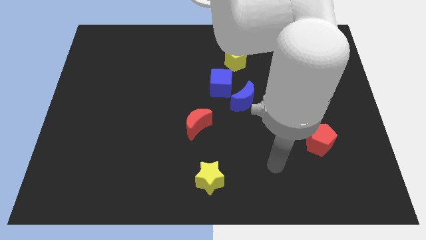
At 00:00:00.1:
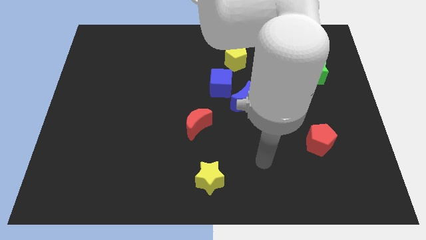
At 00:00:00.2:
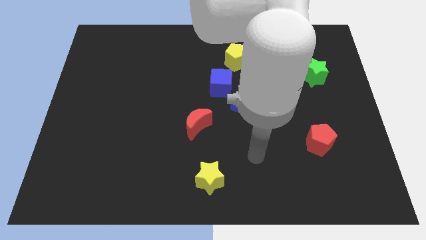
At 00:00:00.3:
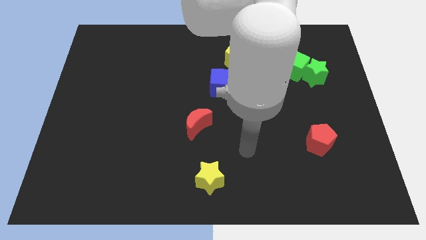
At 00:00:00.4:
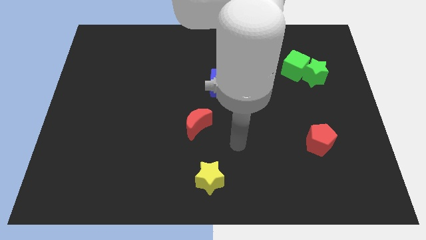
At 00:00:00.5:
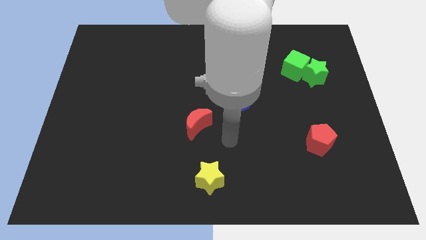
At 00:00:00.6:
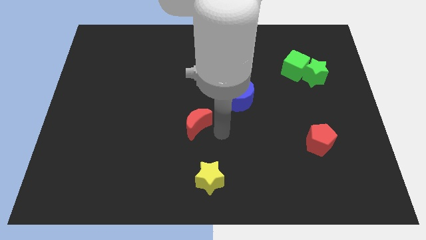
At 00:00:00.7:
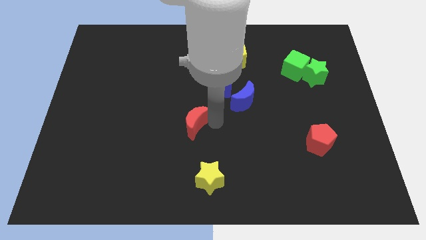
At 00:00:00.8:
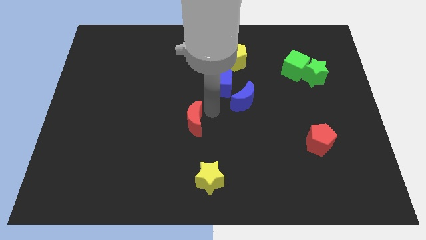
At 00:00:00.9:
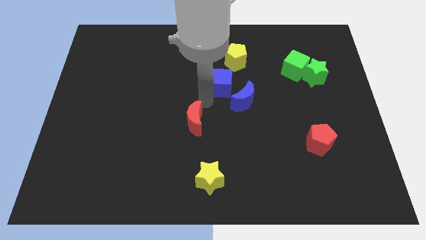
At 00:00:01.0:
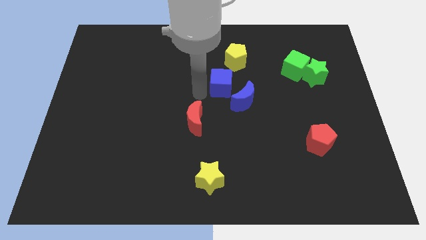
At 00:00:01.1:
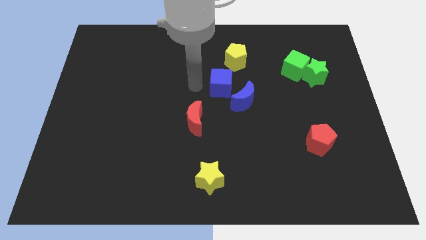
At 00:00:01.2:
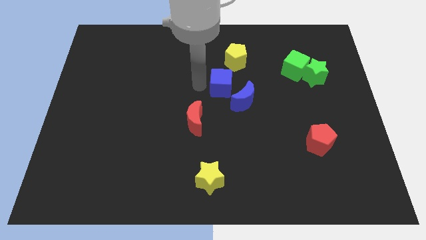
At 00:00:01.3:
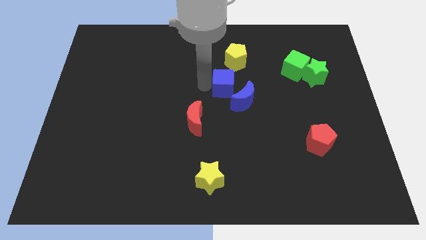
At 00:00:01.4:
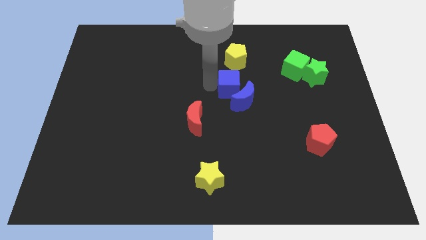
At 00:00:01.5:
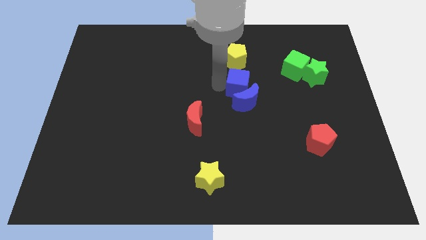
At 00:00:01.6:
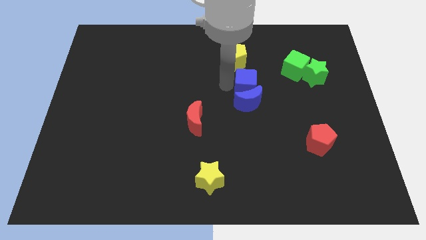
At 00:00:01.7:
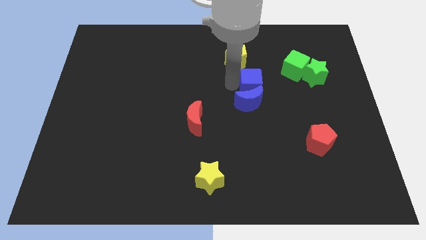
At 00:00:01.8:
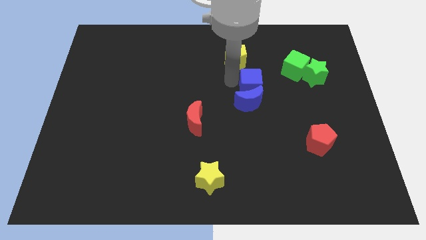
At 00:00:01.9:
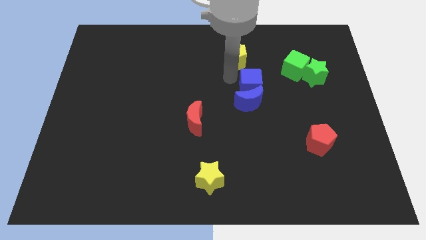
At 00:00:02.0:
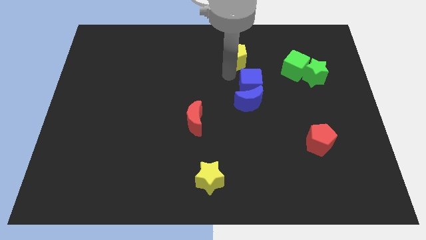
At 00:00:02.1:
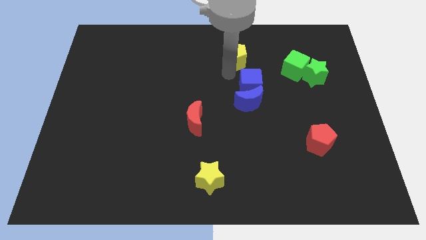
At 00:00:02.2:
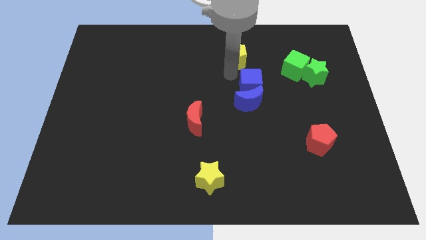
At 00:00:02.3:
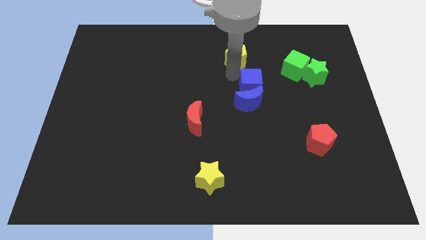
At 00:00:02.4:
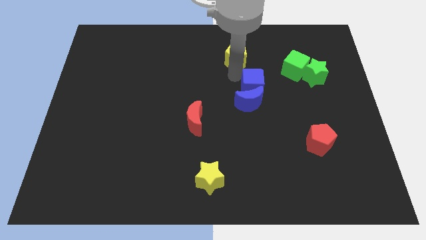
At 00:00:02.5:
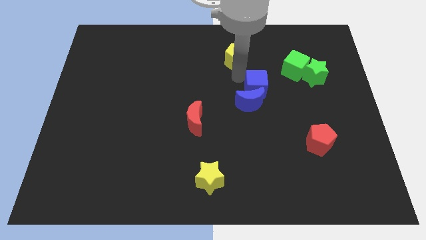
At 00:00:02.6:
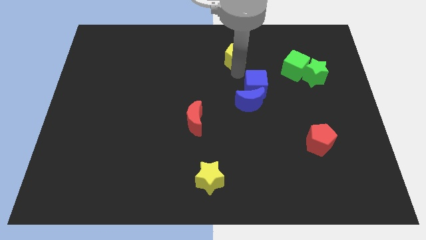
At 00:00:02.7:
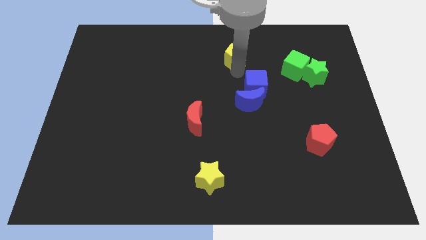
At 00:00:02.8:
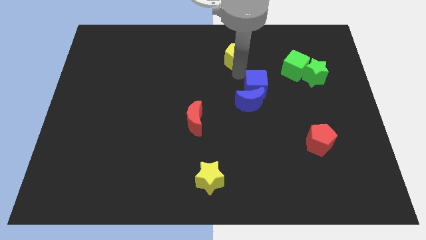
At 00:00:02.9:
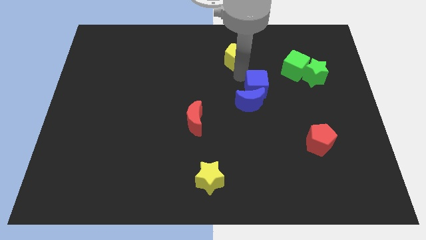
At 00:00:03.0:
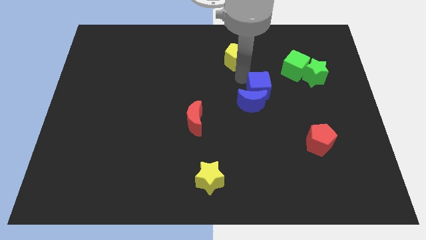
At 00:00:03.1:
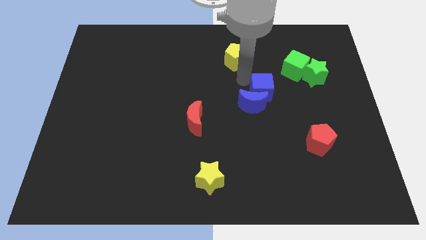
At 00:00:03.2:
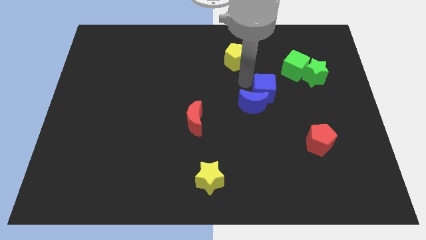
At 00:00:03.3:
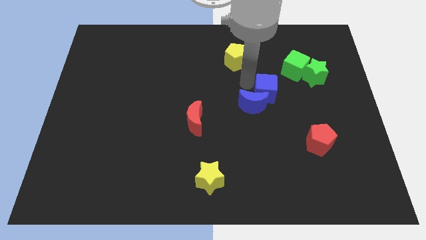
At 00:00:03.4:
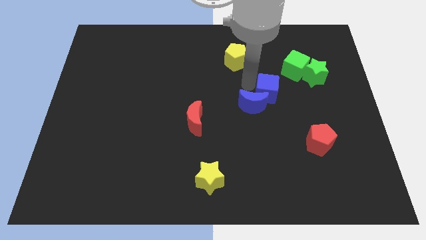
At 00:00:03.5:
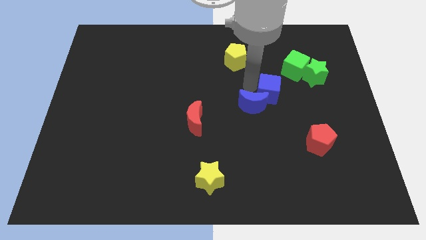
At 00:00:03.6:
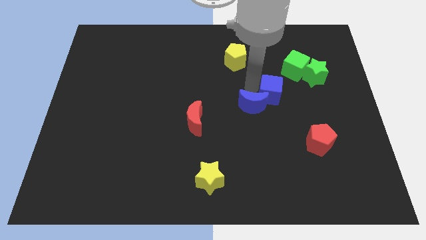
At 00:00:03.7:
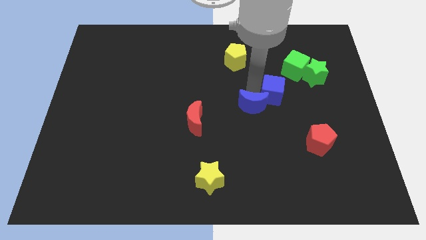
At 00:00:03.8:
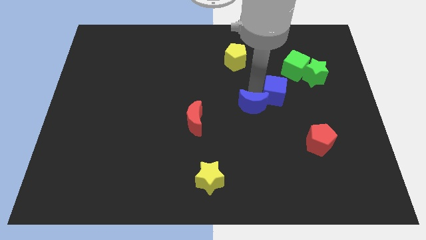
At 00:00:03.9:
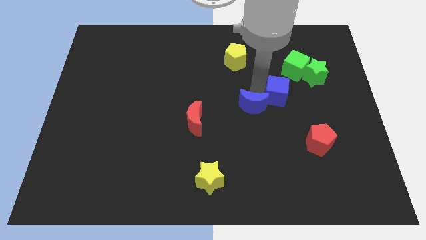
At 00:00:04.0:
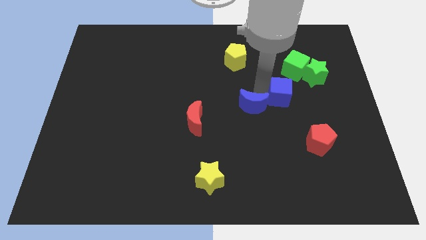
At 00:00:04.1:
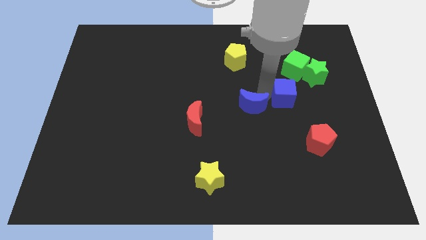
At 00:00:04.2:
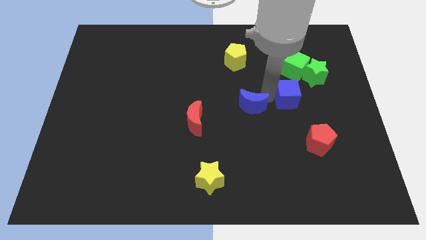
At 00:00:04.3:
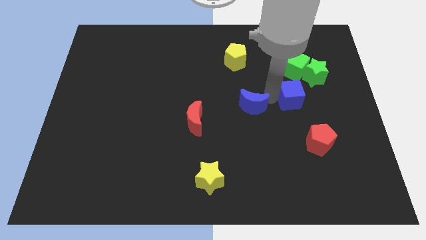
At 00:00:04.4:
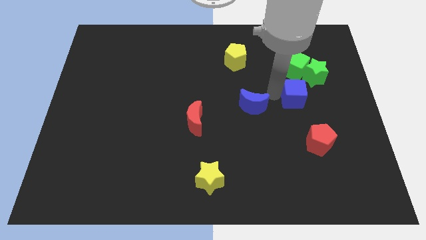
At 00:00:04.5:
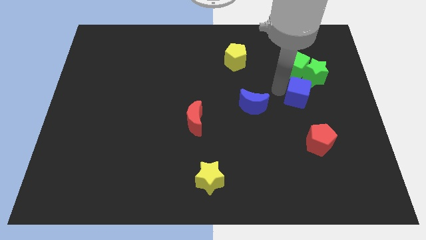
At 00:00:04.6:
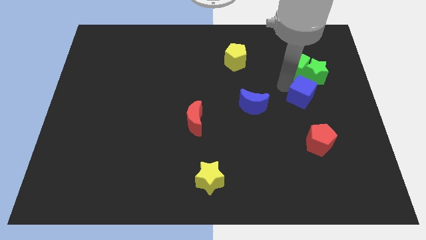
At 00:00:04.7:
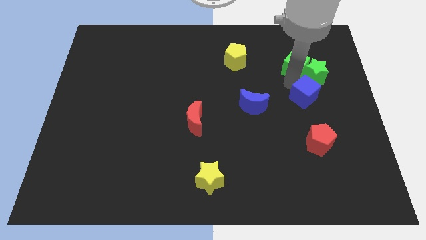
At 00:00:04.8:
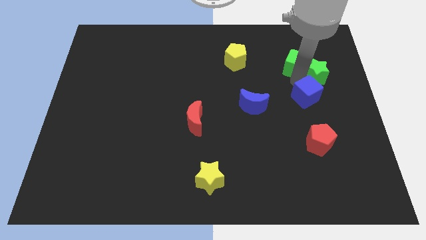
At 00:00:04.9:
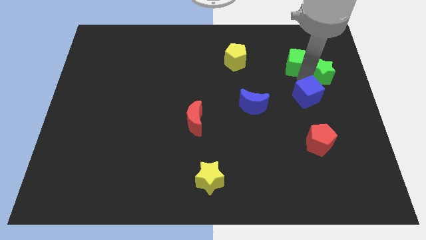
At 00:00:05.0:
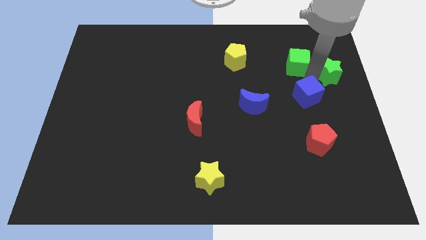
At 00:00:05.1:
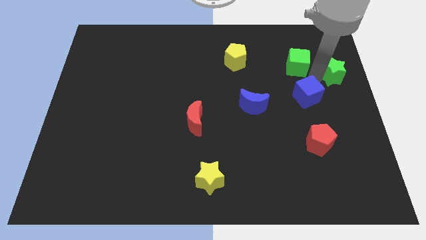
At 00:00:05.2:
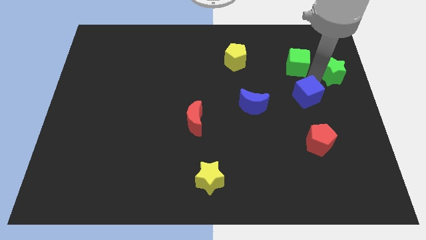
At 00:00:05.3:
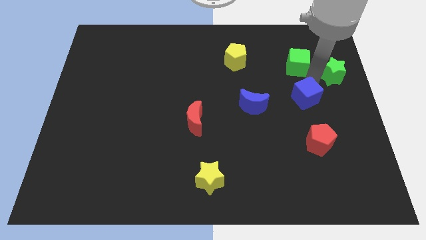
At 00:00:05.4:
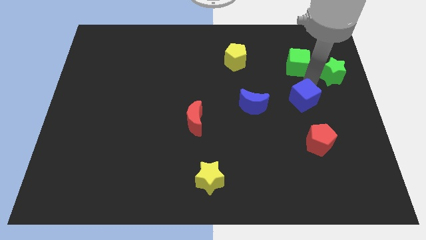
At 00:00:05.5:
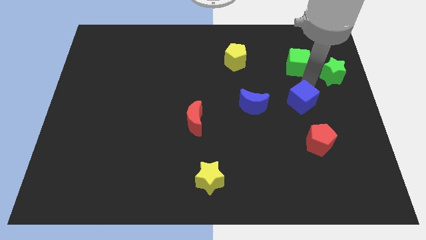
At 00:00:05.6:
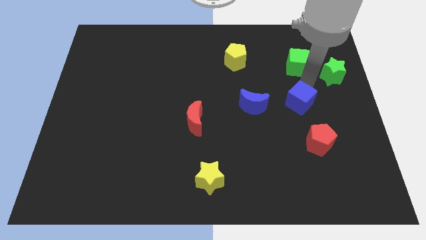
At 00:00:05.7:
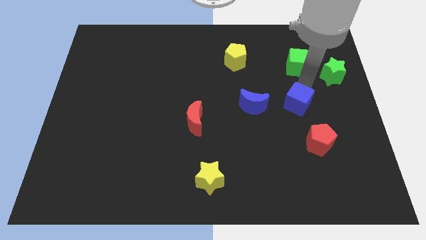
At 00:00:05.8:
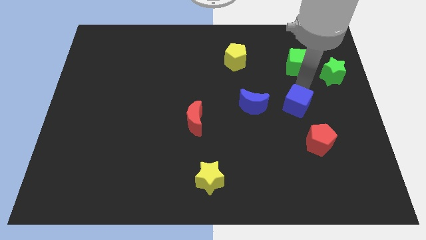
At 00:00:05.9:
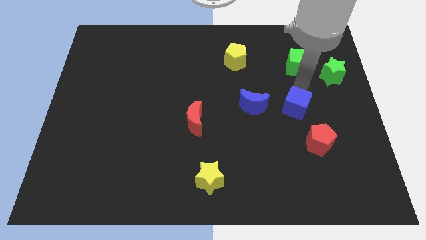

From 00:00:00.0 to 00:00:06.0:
move the blue cube to the top left side of the red pentagon

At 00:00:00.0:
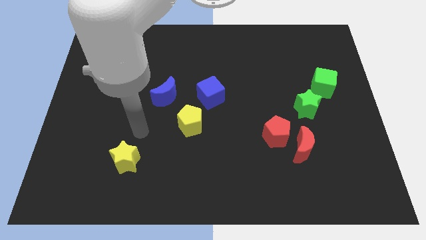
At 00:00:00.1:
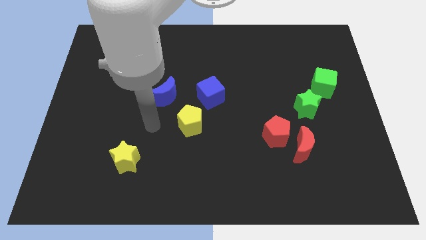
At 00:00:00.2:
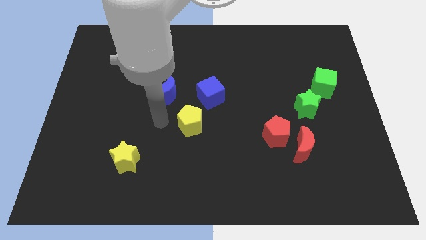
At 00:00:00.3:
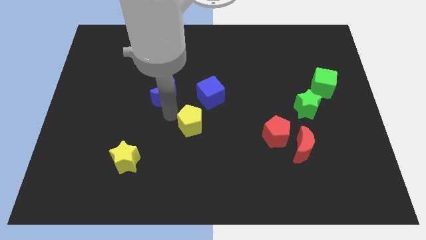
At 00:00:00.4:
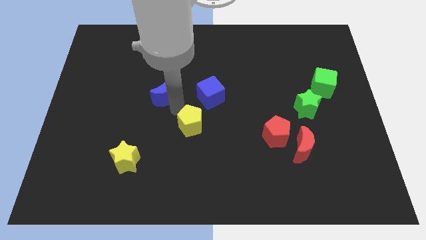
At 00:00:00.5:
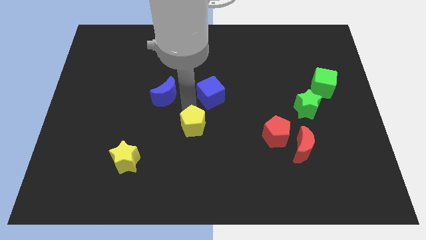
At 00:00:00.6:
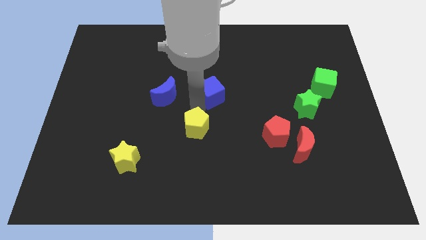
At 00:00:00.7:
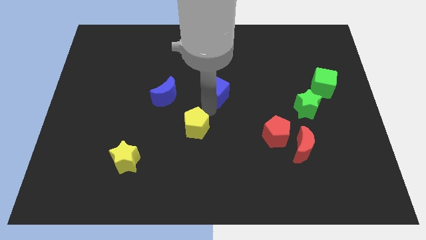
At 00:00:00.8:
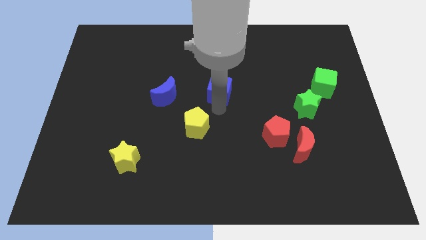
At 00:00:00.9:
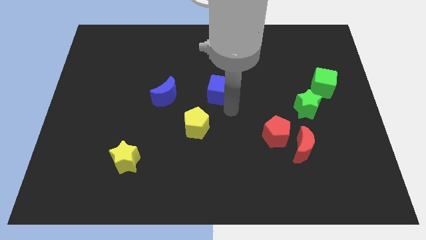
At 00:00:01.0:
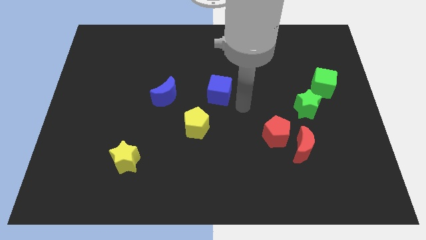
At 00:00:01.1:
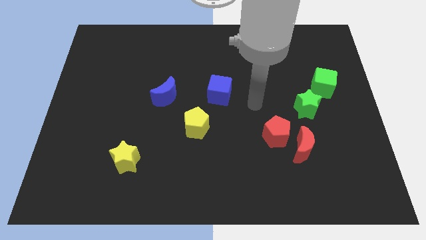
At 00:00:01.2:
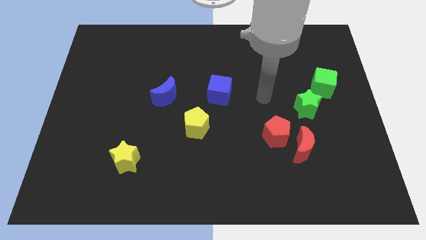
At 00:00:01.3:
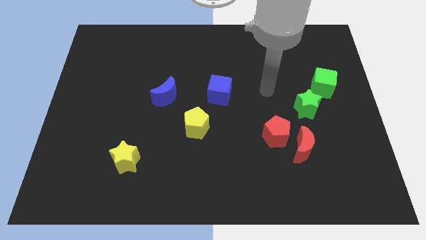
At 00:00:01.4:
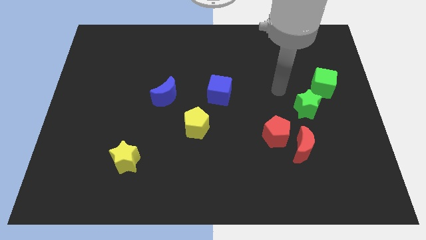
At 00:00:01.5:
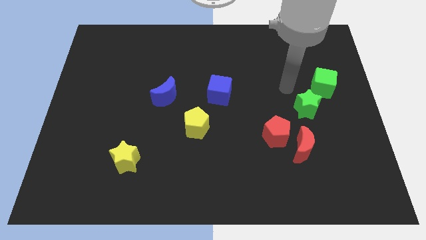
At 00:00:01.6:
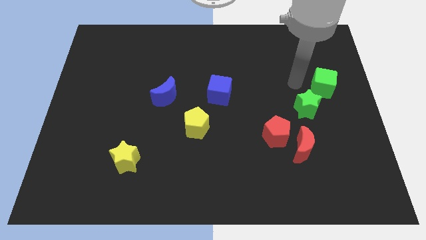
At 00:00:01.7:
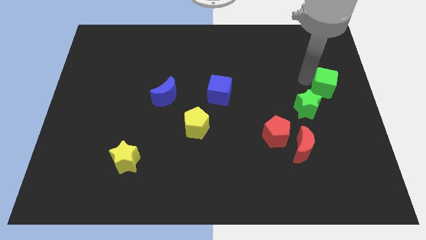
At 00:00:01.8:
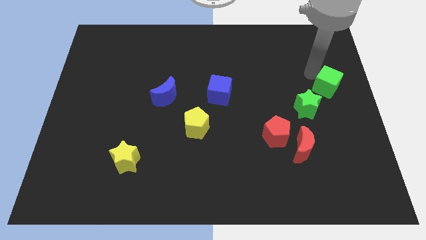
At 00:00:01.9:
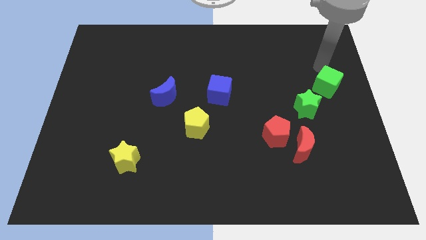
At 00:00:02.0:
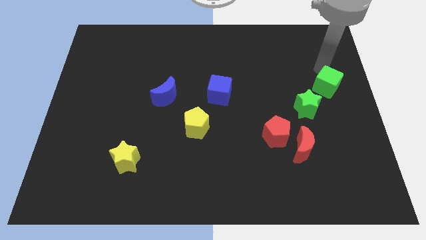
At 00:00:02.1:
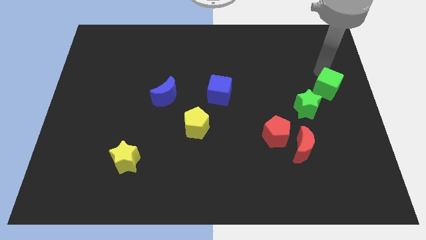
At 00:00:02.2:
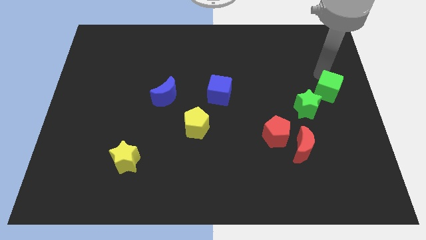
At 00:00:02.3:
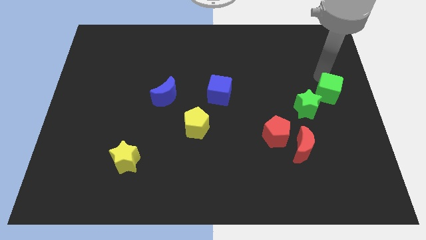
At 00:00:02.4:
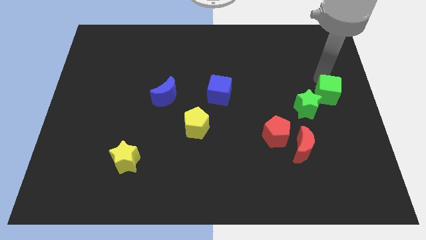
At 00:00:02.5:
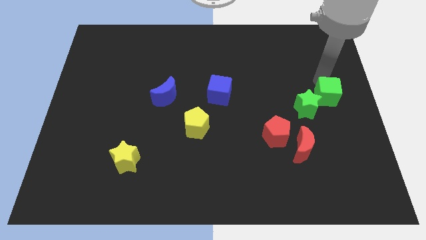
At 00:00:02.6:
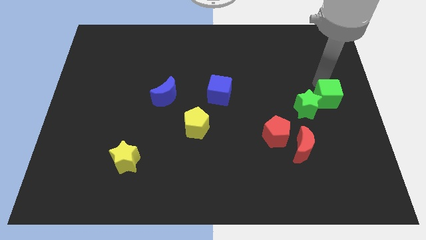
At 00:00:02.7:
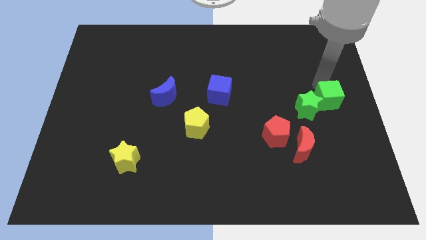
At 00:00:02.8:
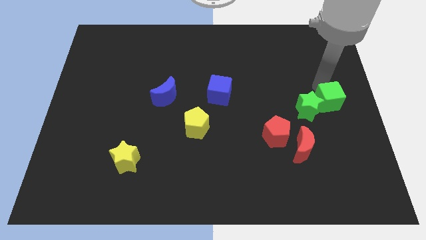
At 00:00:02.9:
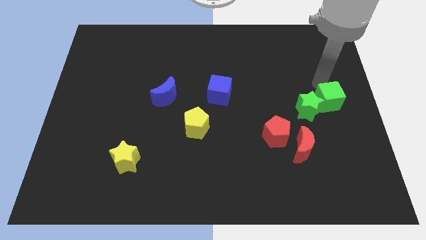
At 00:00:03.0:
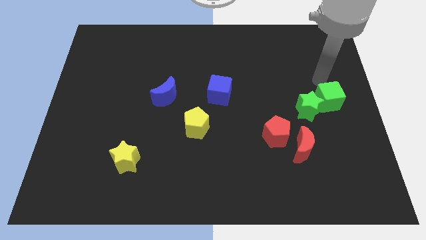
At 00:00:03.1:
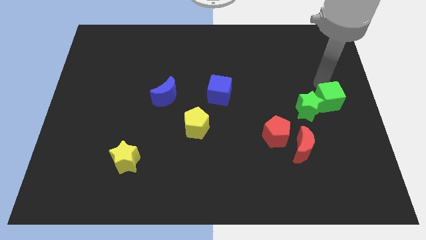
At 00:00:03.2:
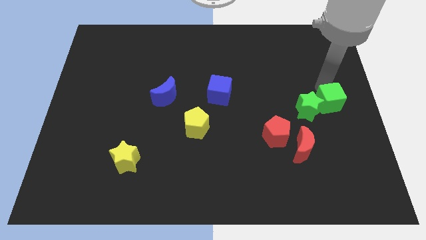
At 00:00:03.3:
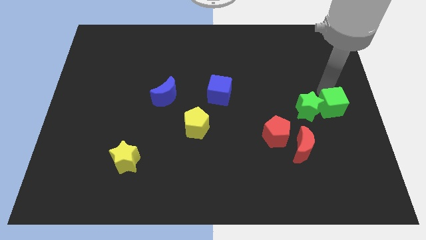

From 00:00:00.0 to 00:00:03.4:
move the green cube to the bottom right of the green star
